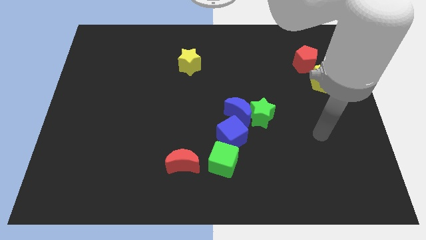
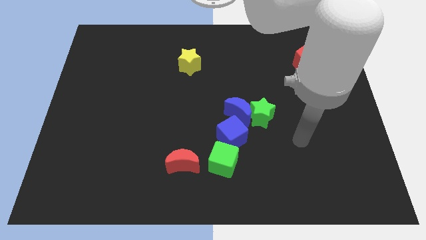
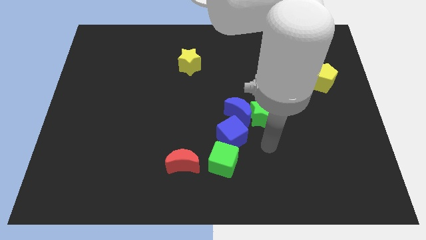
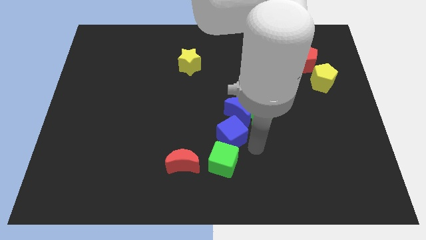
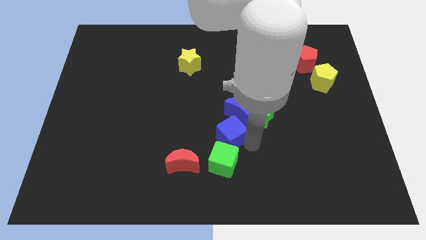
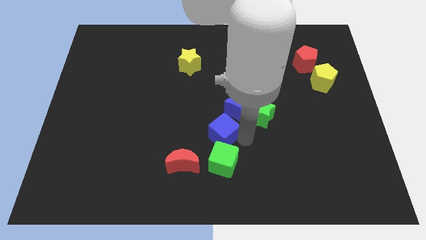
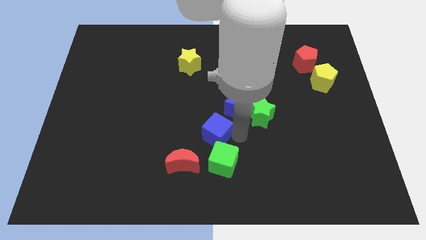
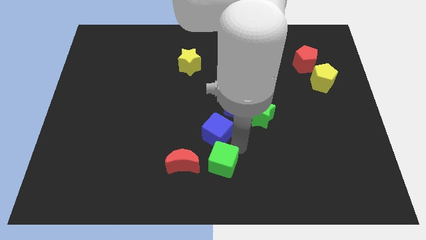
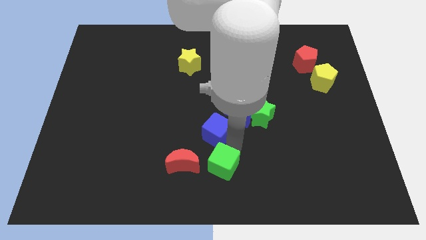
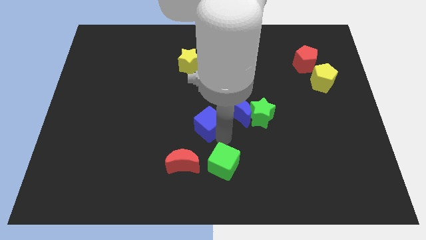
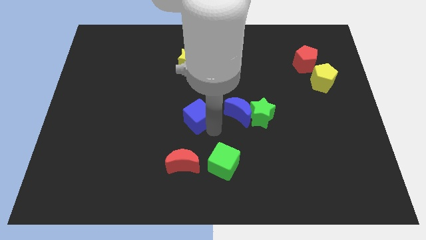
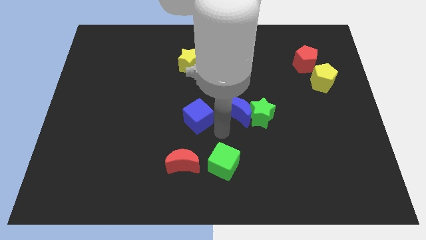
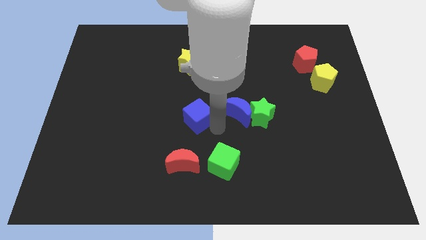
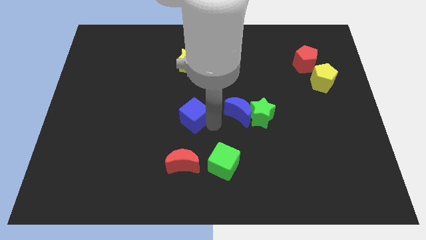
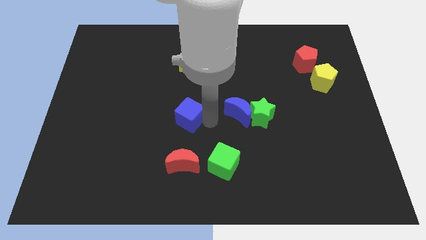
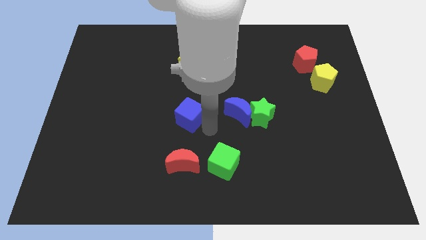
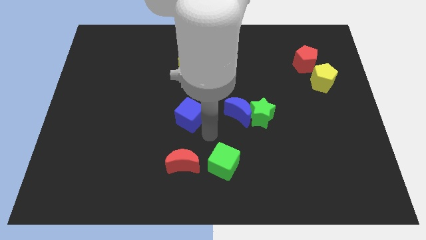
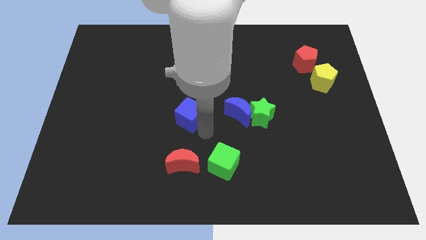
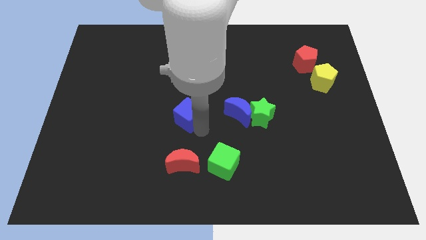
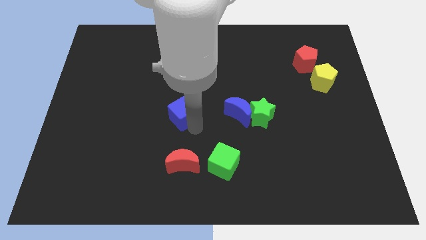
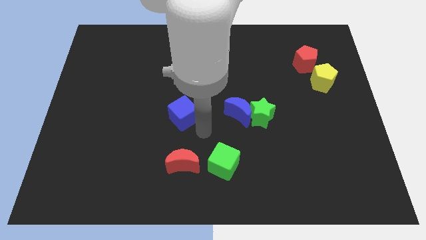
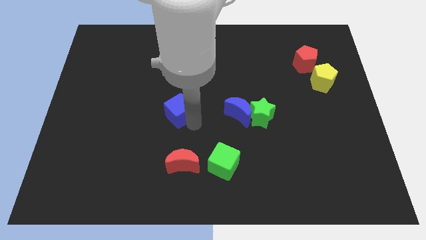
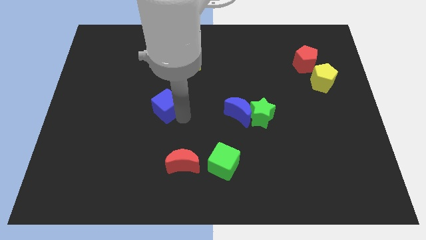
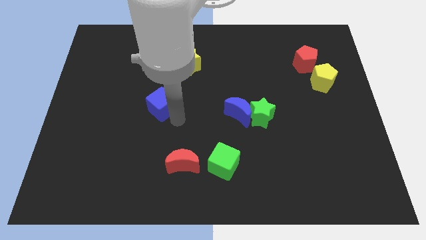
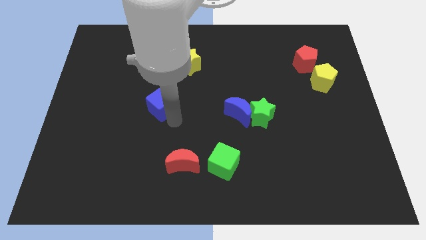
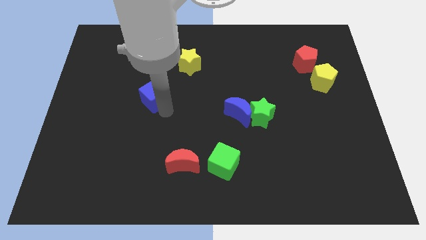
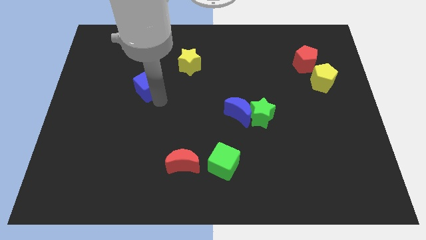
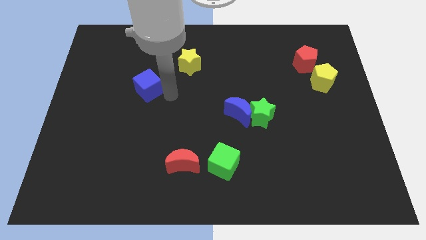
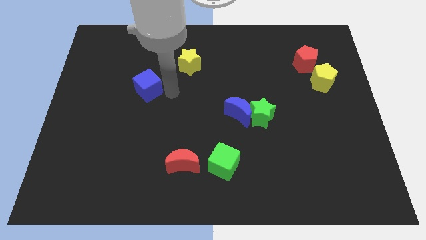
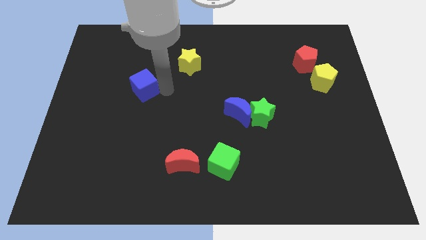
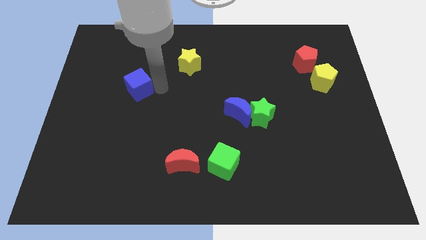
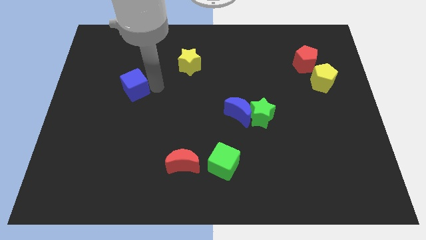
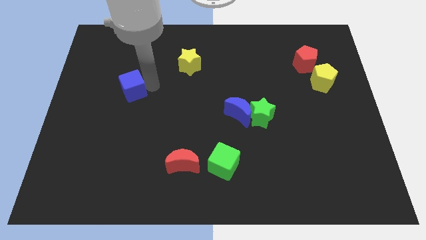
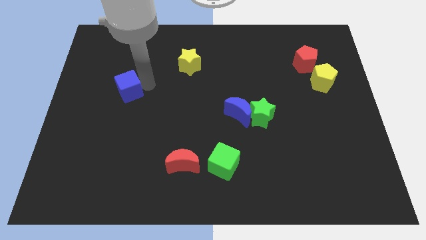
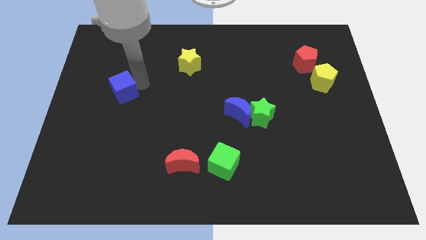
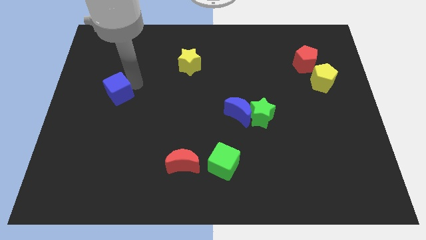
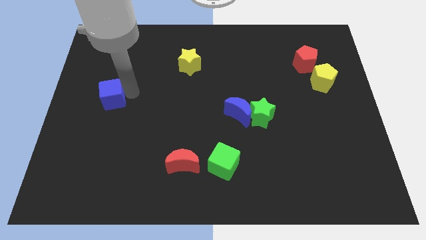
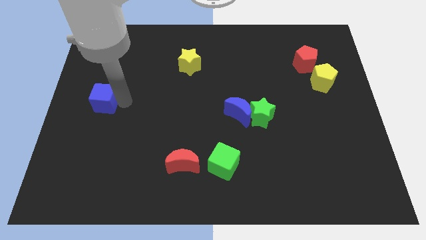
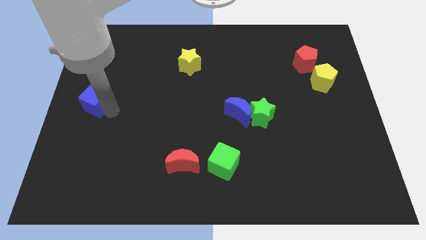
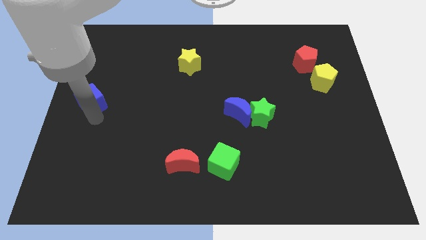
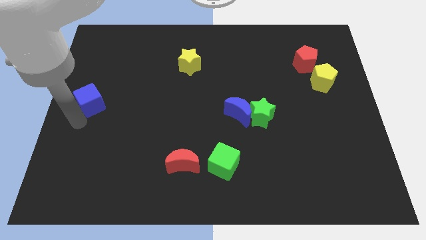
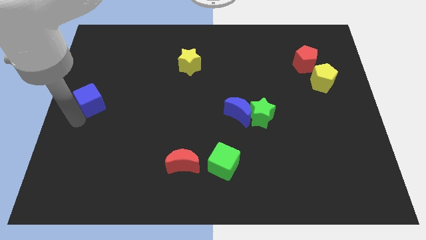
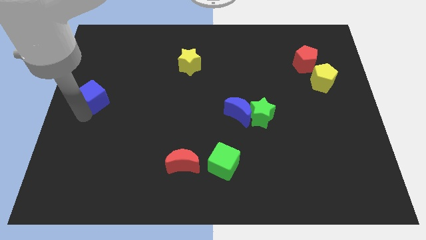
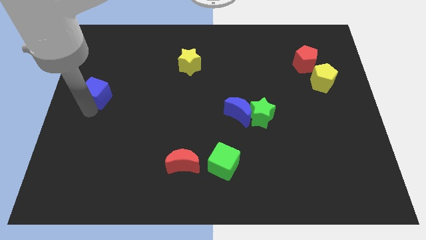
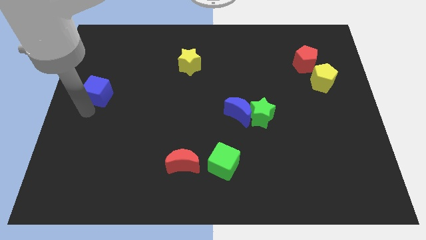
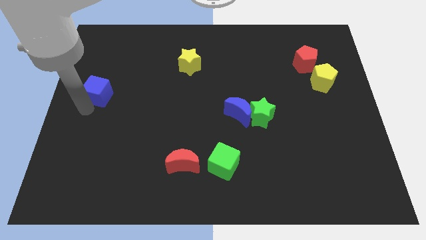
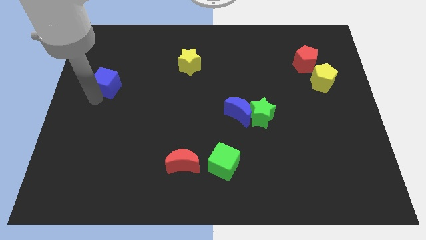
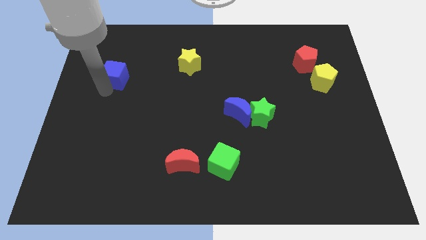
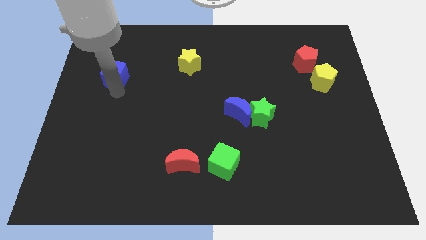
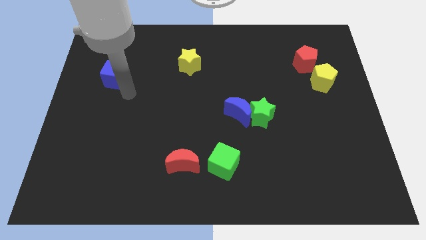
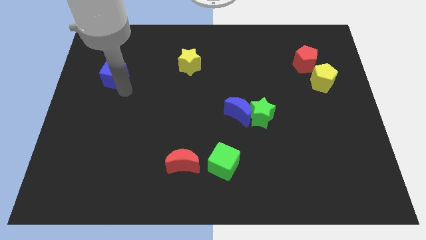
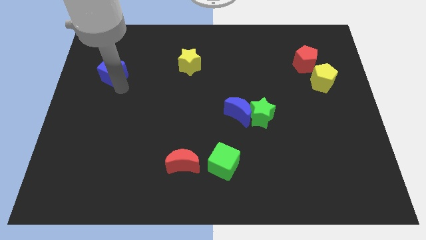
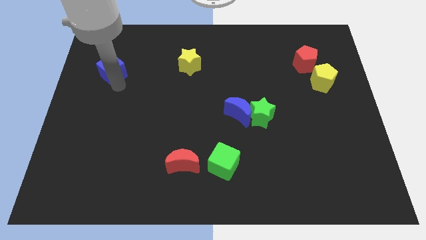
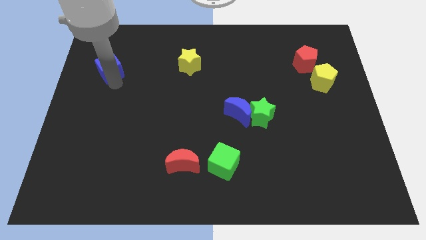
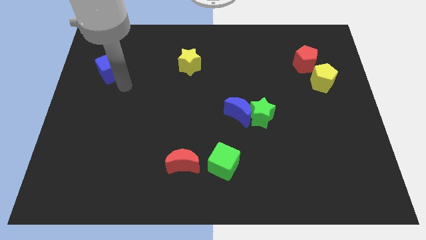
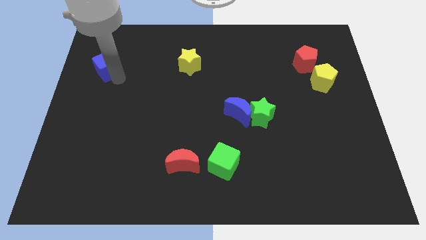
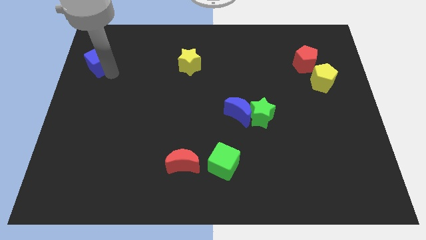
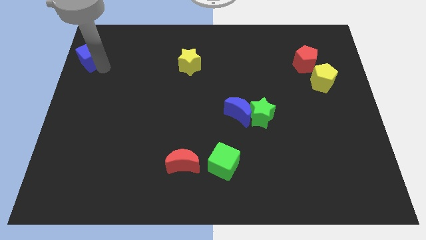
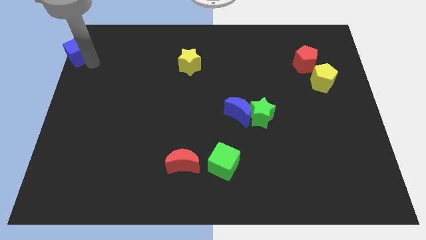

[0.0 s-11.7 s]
push the blue cube to the upper left corner

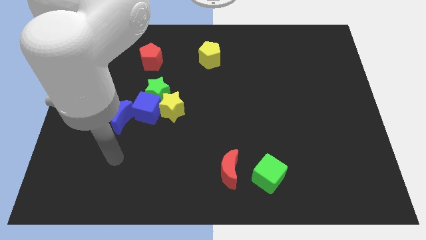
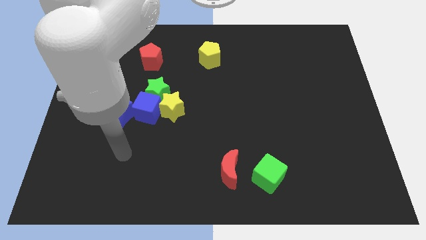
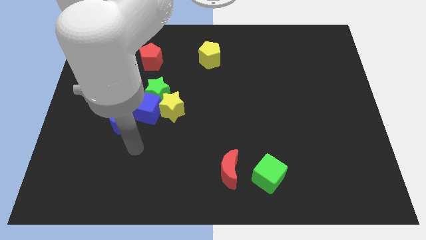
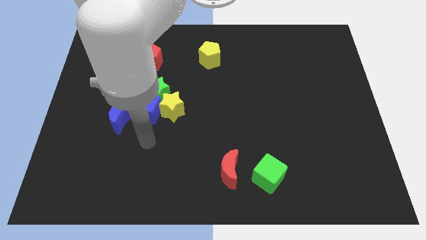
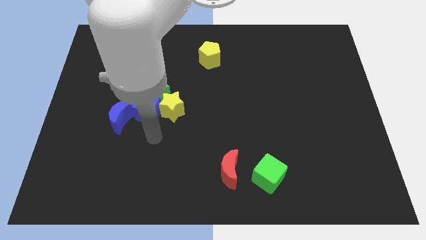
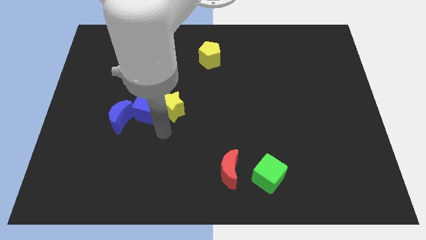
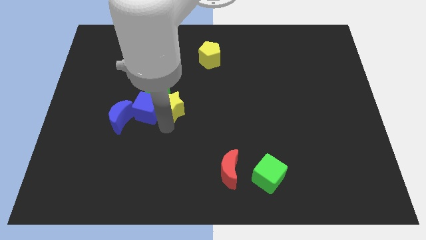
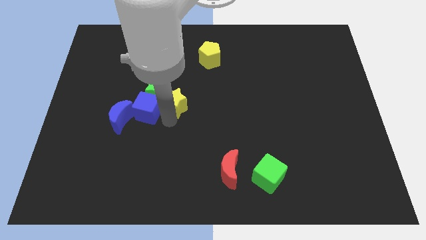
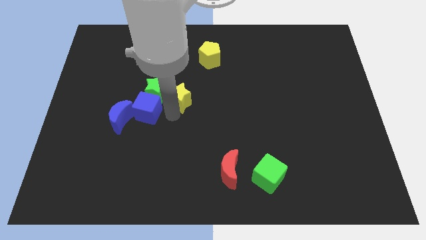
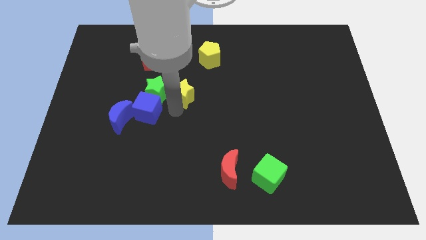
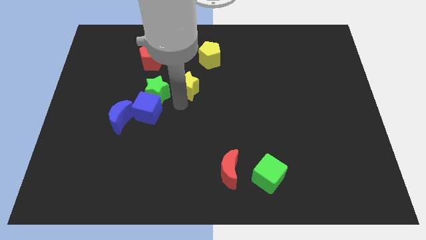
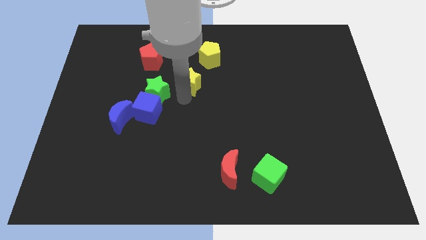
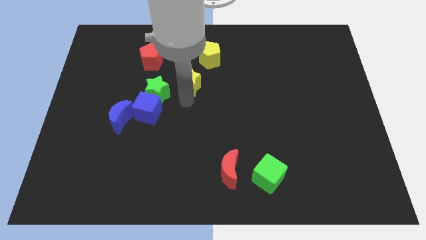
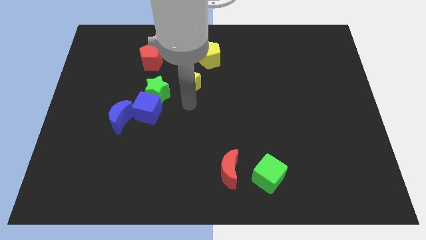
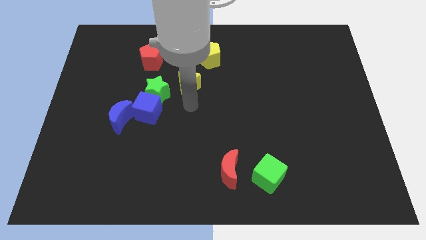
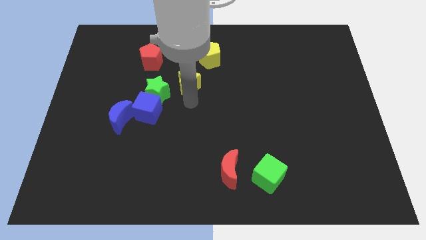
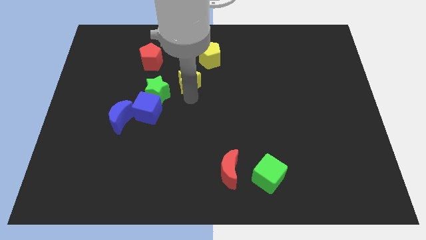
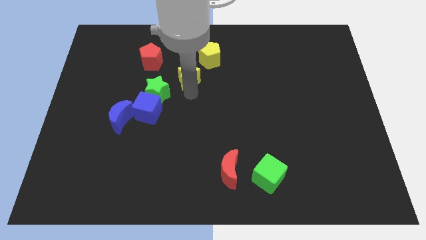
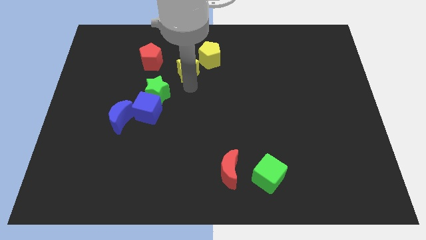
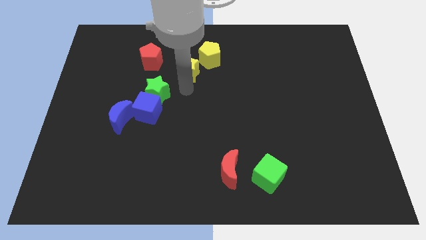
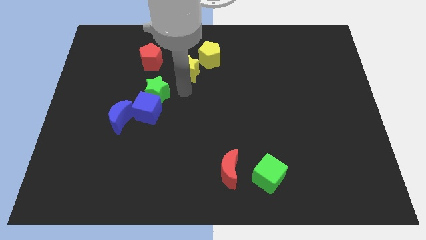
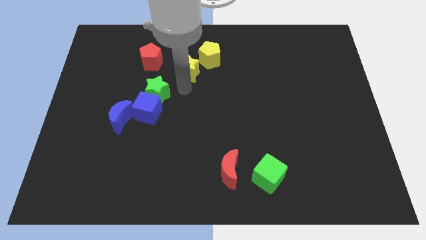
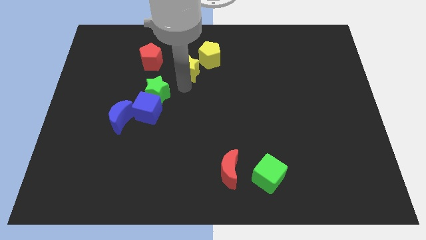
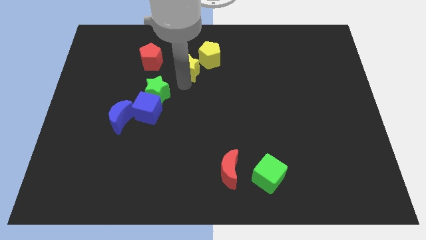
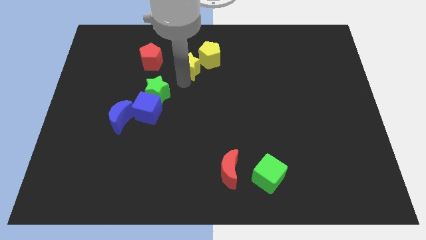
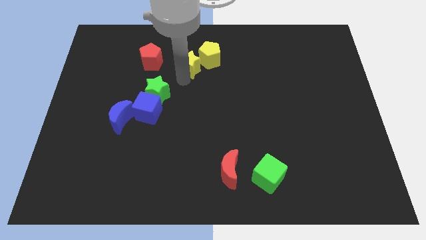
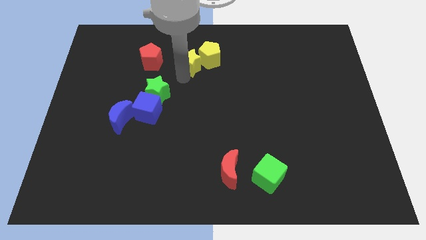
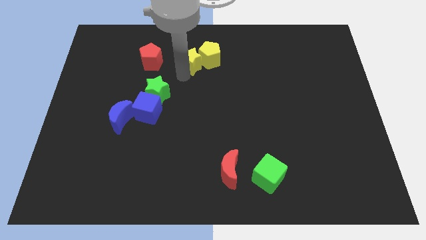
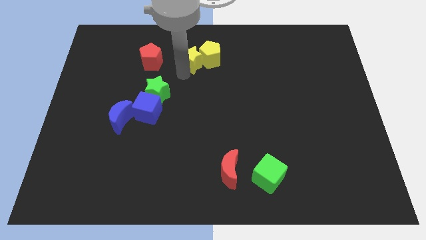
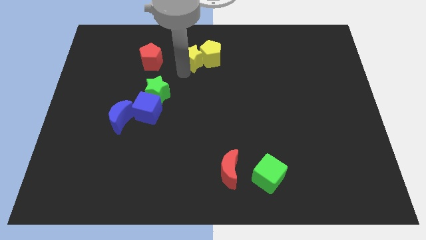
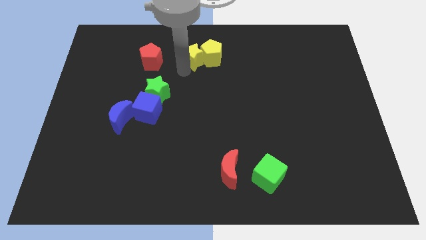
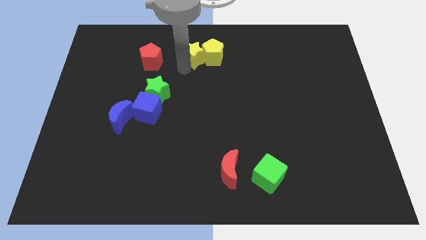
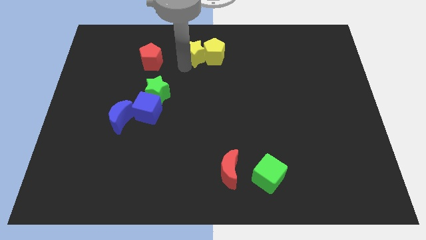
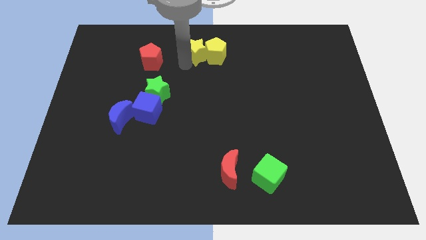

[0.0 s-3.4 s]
put the yellow star to the top
